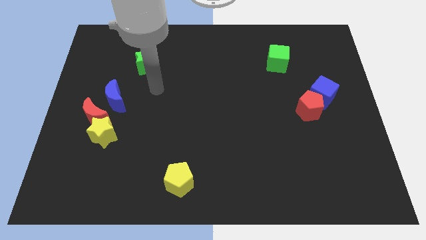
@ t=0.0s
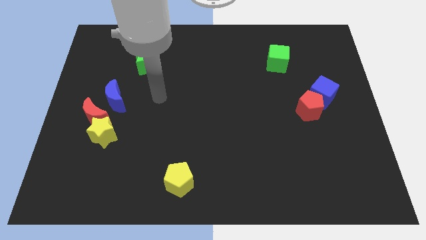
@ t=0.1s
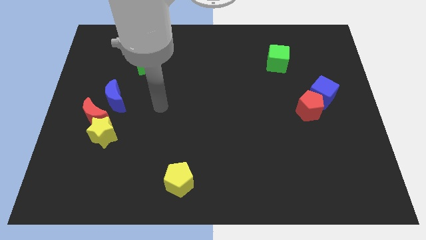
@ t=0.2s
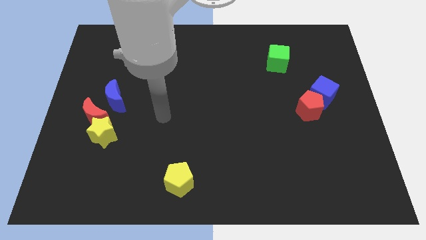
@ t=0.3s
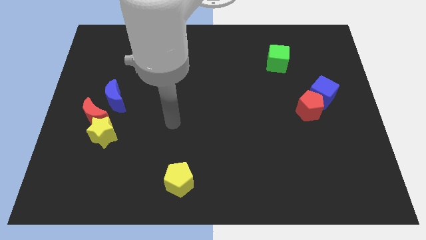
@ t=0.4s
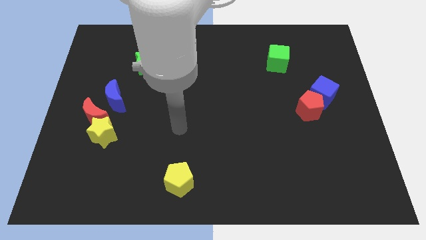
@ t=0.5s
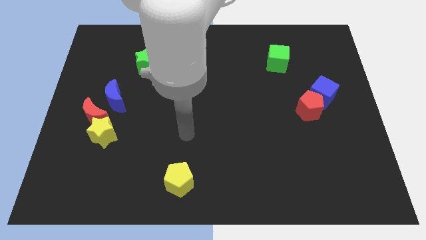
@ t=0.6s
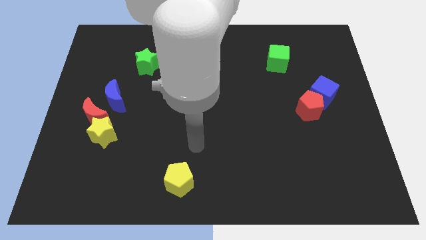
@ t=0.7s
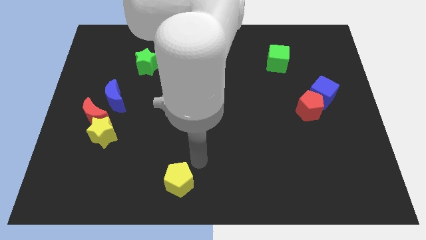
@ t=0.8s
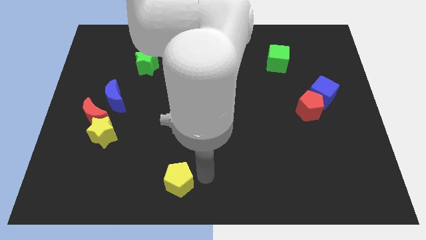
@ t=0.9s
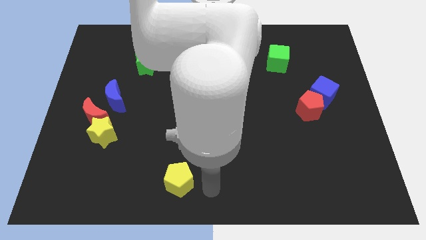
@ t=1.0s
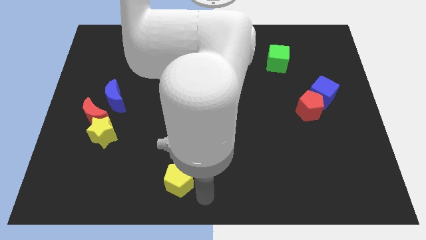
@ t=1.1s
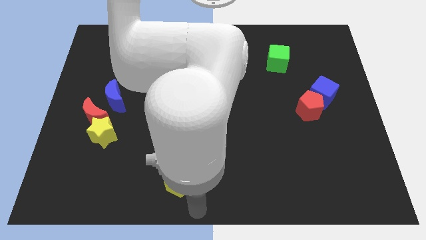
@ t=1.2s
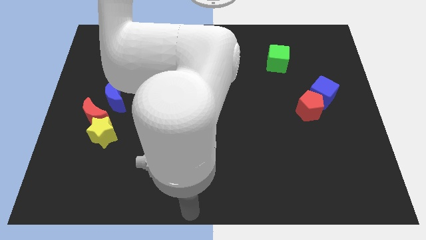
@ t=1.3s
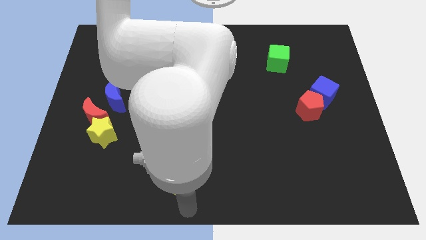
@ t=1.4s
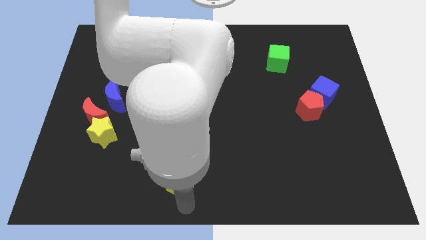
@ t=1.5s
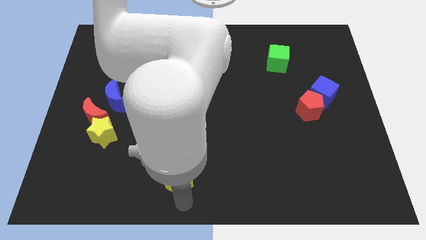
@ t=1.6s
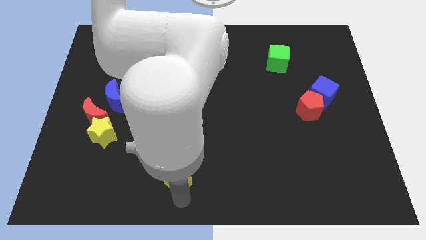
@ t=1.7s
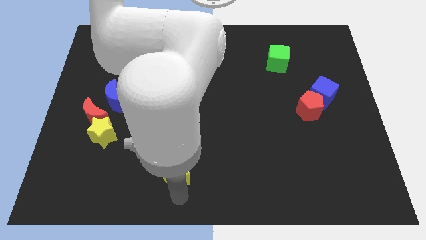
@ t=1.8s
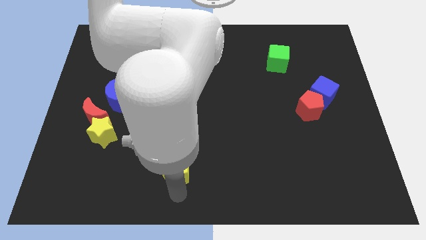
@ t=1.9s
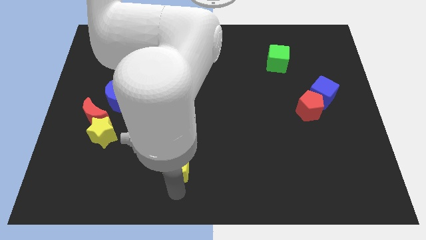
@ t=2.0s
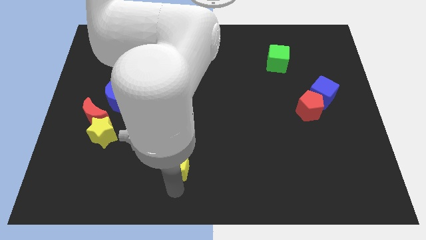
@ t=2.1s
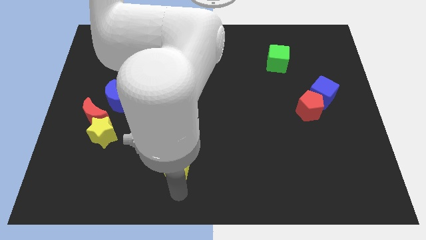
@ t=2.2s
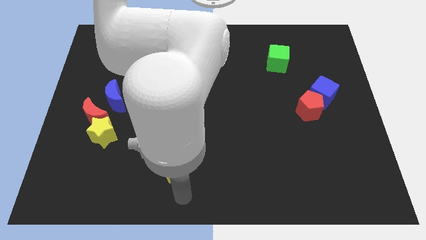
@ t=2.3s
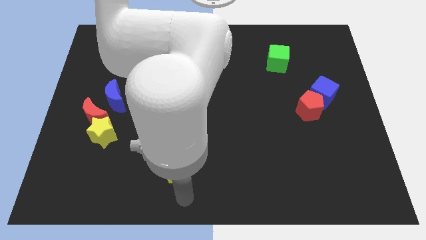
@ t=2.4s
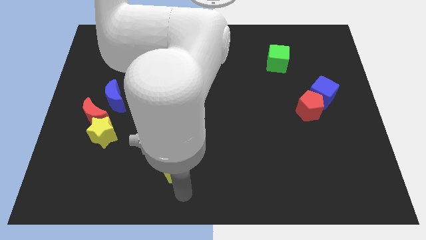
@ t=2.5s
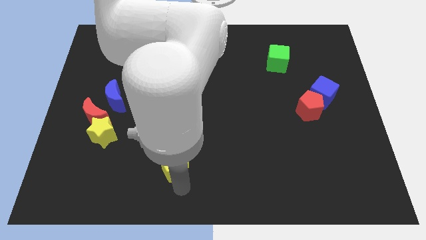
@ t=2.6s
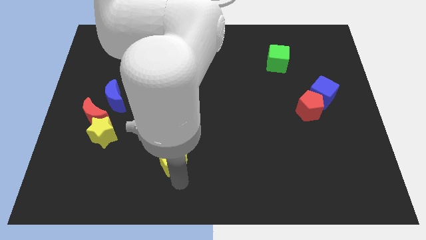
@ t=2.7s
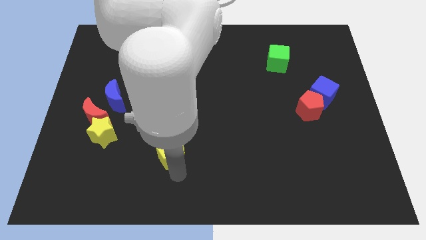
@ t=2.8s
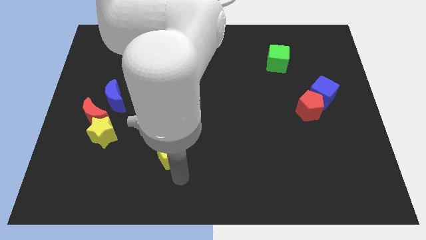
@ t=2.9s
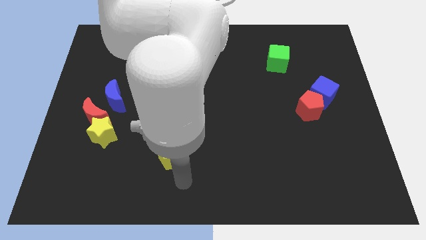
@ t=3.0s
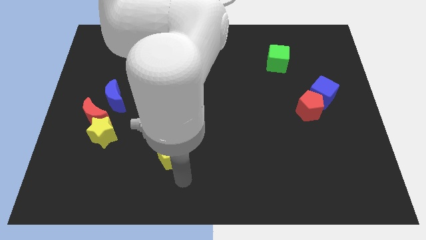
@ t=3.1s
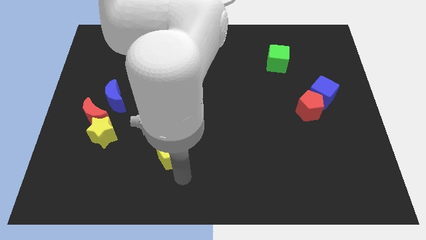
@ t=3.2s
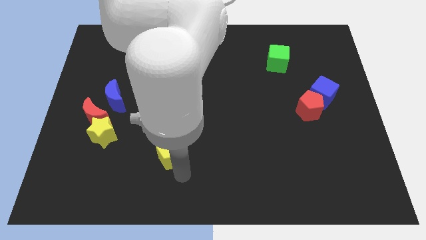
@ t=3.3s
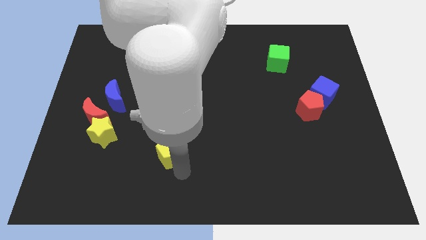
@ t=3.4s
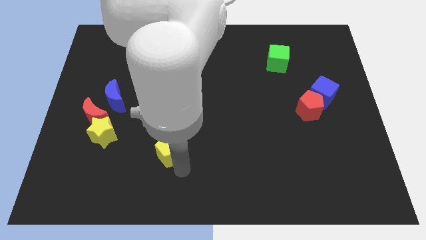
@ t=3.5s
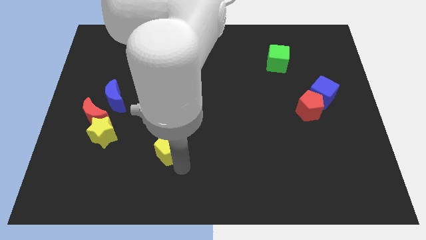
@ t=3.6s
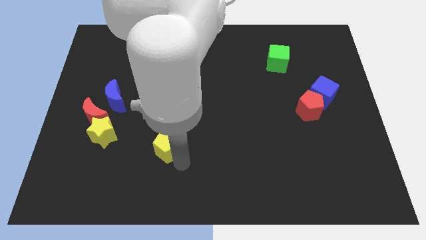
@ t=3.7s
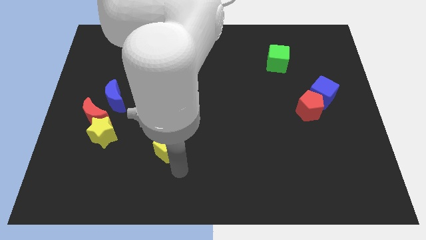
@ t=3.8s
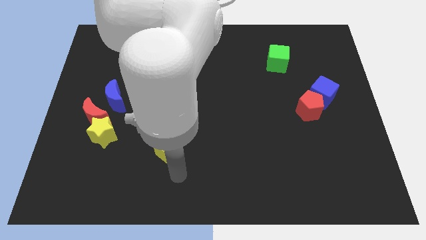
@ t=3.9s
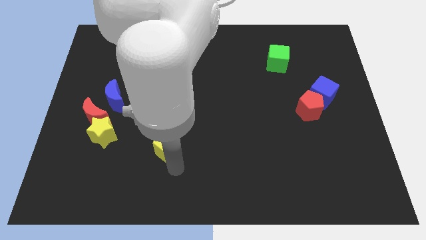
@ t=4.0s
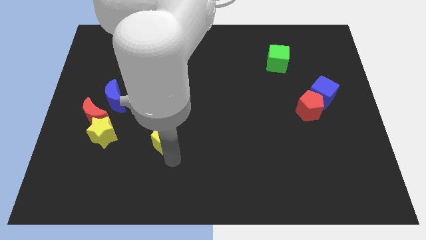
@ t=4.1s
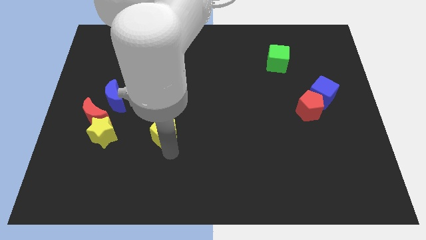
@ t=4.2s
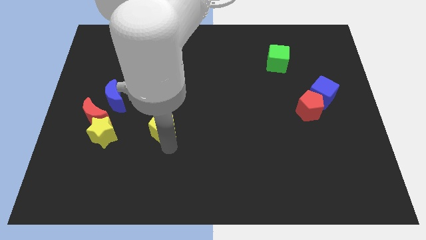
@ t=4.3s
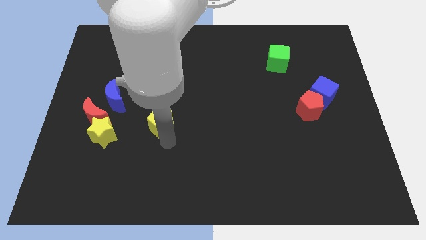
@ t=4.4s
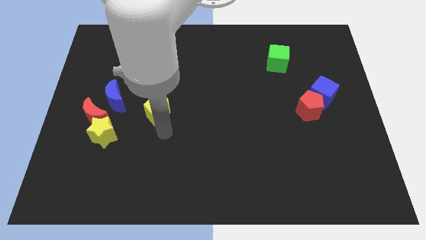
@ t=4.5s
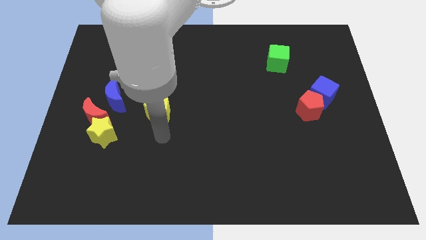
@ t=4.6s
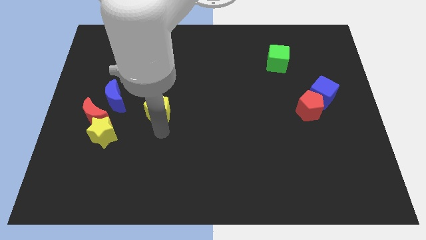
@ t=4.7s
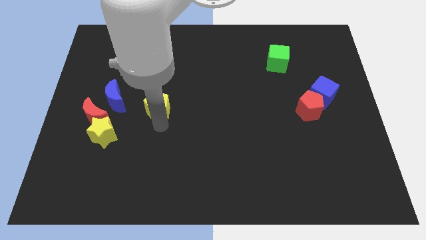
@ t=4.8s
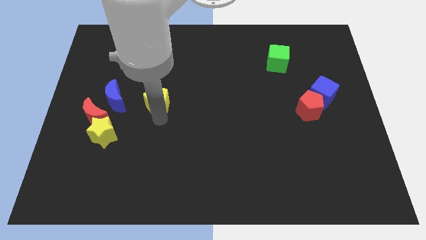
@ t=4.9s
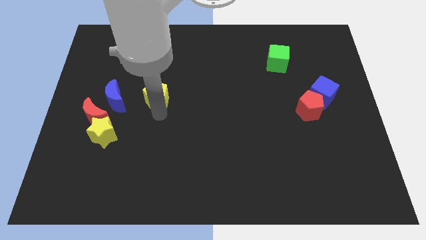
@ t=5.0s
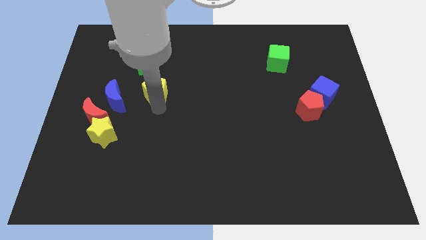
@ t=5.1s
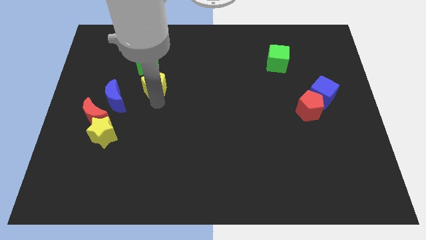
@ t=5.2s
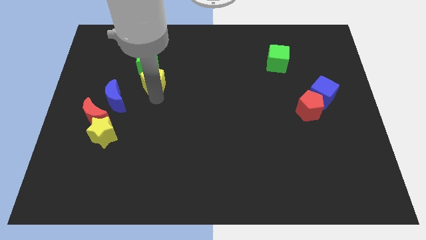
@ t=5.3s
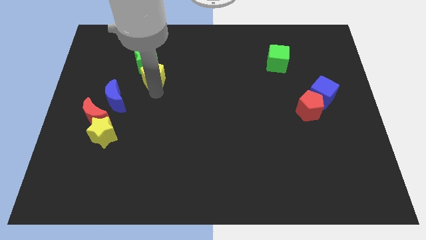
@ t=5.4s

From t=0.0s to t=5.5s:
slide the yellow pentagon to the green star

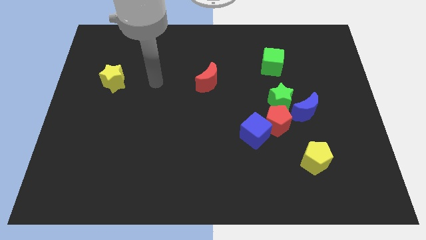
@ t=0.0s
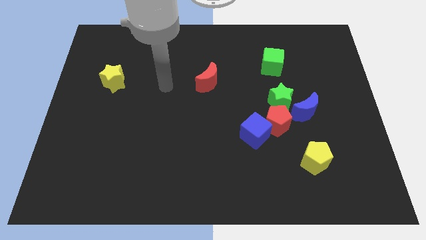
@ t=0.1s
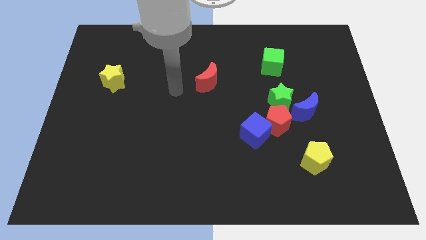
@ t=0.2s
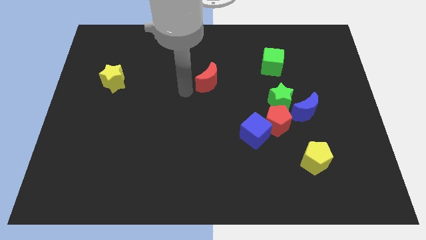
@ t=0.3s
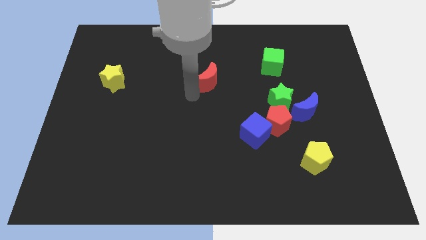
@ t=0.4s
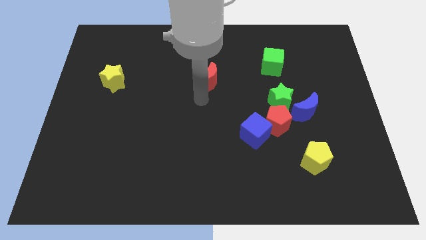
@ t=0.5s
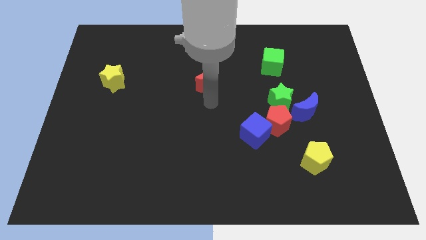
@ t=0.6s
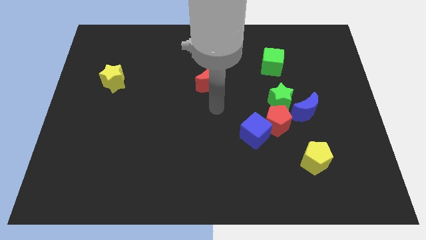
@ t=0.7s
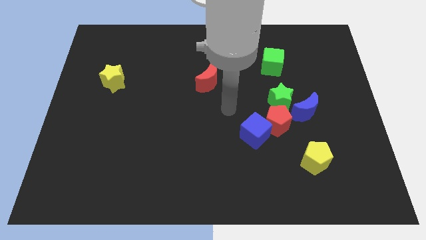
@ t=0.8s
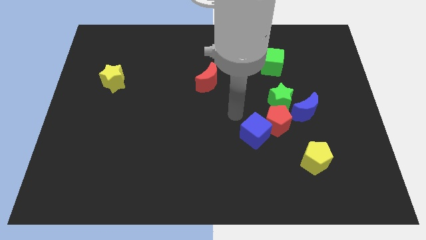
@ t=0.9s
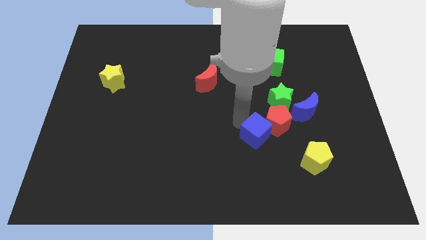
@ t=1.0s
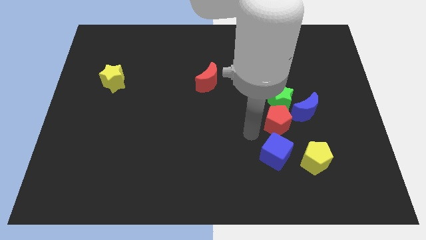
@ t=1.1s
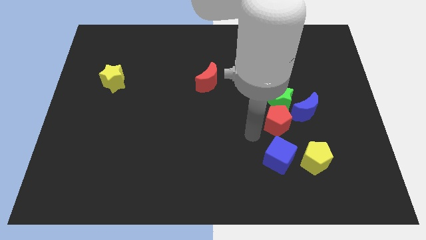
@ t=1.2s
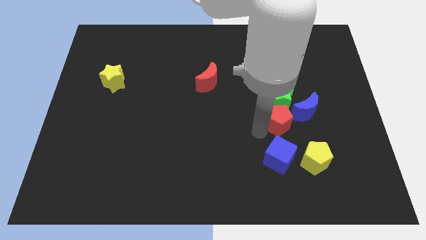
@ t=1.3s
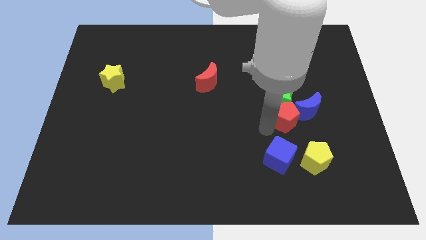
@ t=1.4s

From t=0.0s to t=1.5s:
move the red pentagon close to the blue moon
